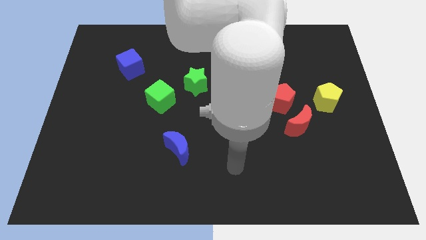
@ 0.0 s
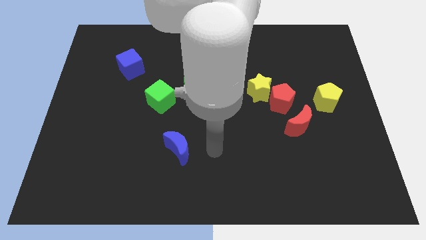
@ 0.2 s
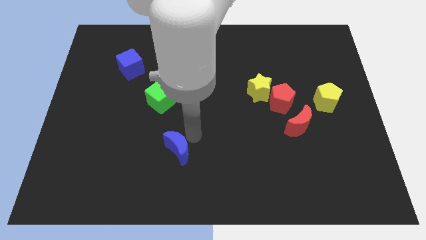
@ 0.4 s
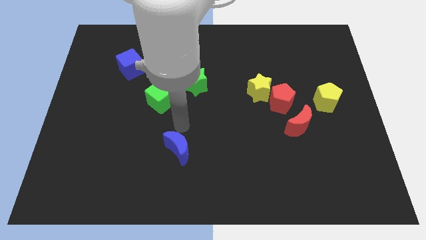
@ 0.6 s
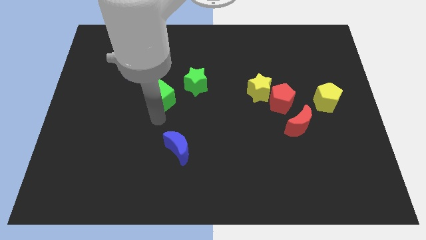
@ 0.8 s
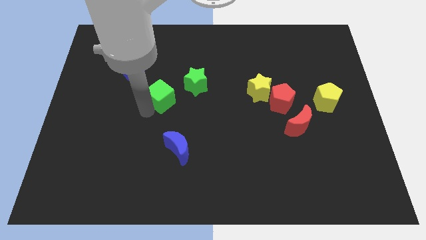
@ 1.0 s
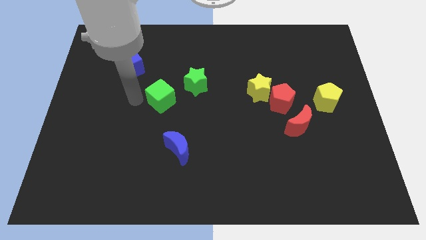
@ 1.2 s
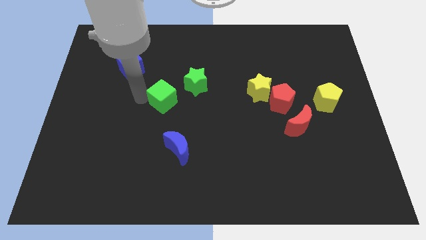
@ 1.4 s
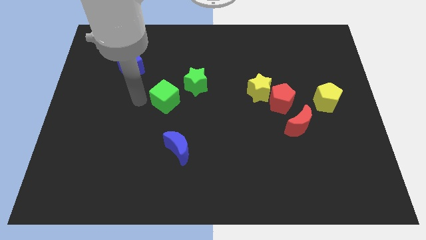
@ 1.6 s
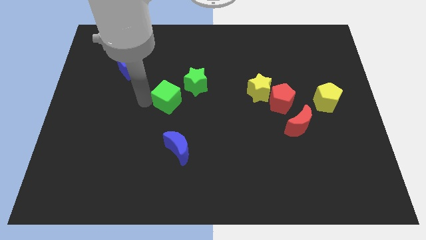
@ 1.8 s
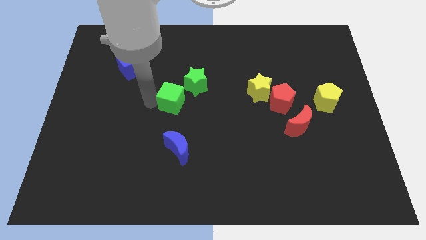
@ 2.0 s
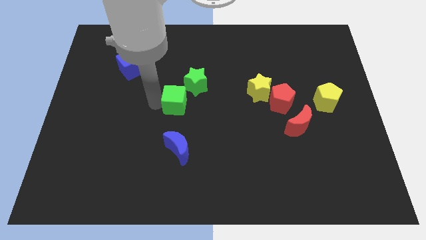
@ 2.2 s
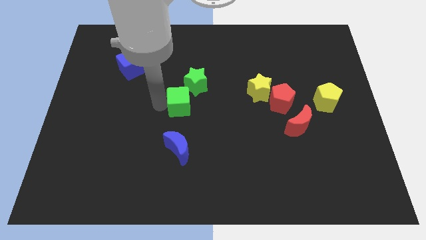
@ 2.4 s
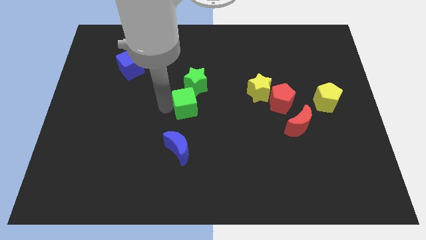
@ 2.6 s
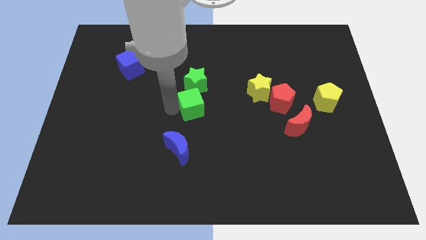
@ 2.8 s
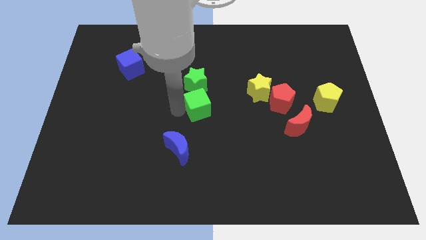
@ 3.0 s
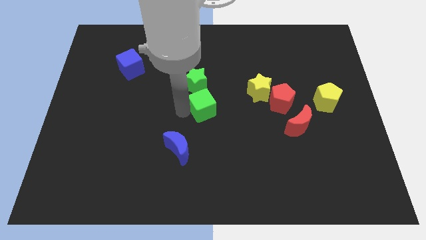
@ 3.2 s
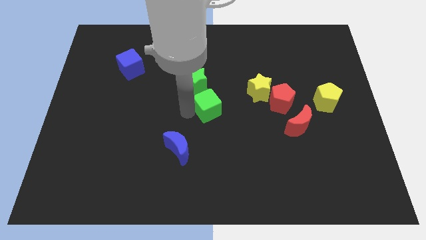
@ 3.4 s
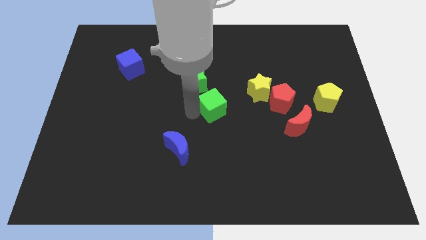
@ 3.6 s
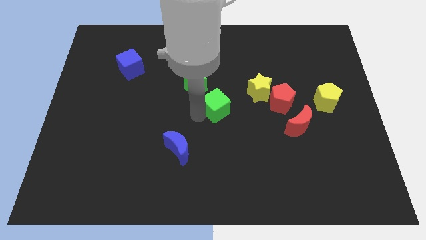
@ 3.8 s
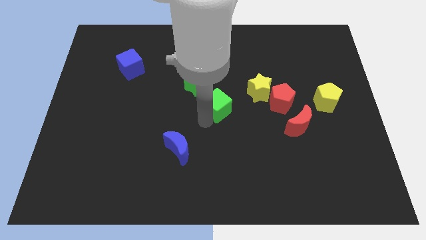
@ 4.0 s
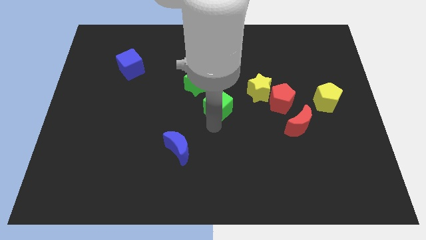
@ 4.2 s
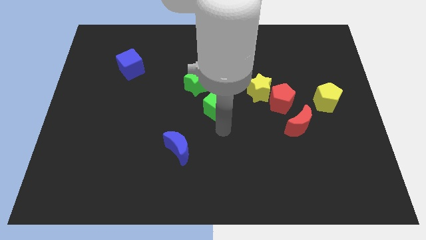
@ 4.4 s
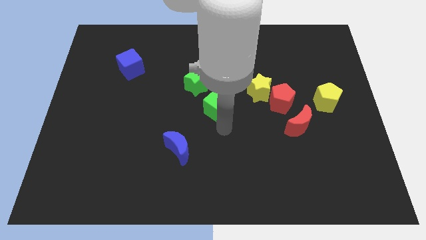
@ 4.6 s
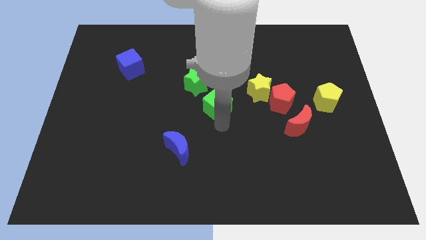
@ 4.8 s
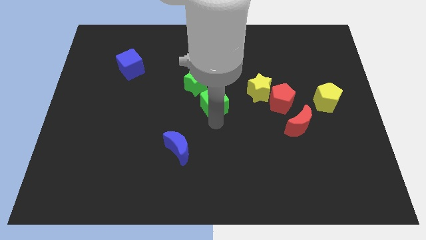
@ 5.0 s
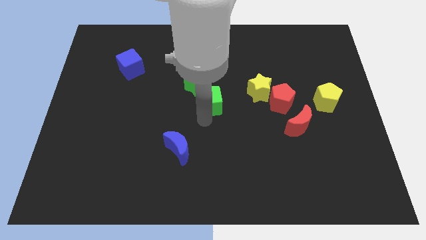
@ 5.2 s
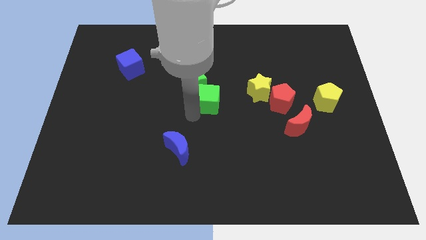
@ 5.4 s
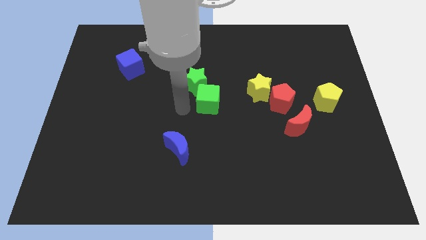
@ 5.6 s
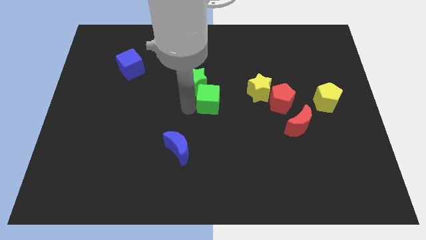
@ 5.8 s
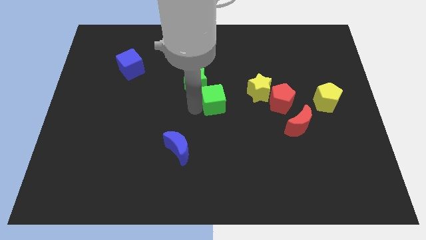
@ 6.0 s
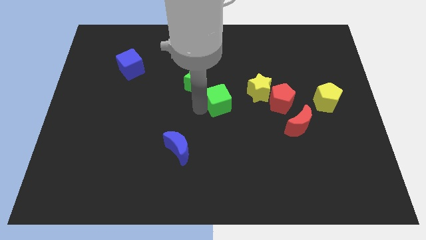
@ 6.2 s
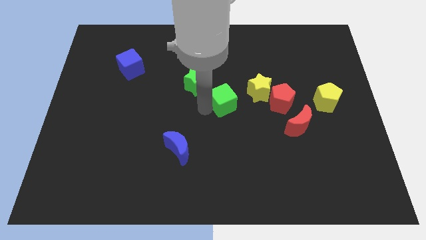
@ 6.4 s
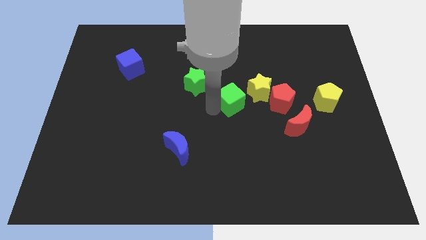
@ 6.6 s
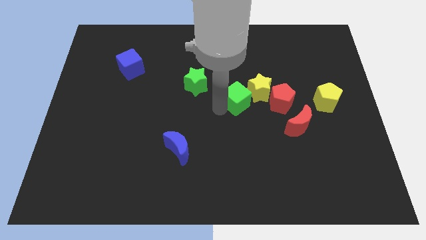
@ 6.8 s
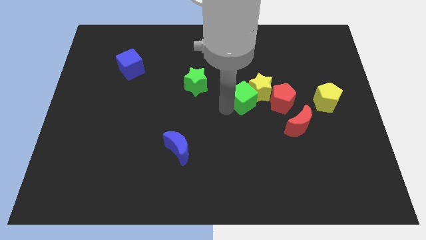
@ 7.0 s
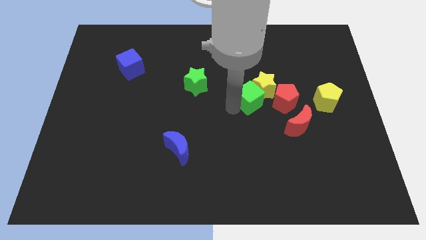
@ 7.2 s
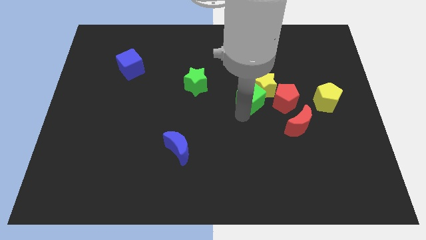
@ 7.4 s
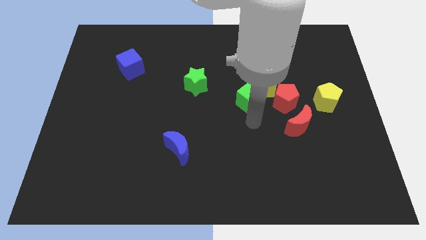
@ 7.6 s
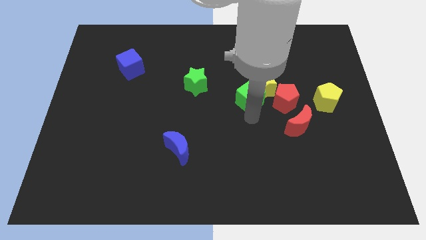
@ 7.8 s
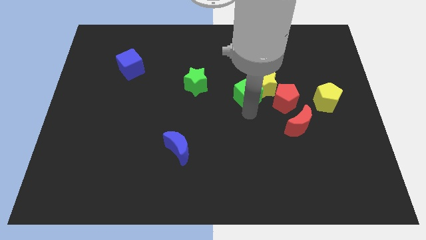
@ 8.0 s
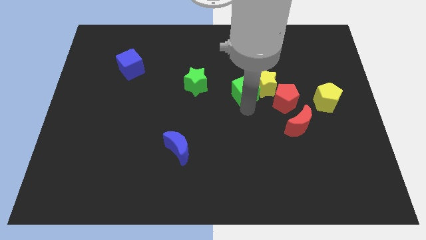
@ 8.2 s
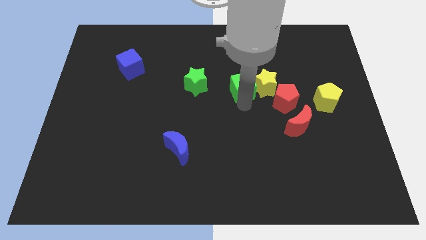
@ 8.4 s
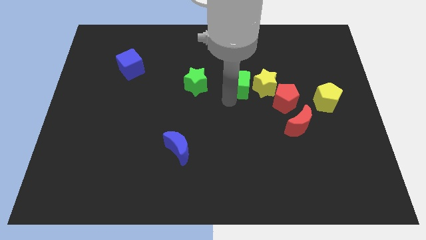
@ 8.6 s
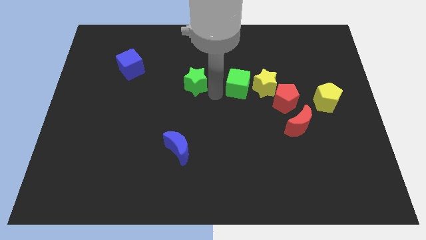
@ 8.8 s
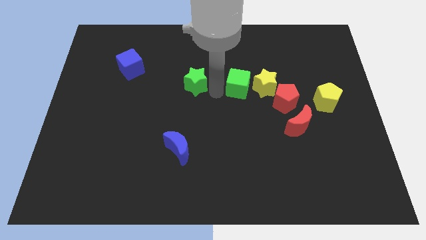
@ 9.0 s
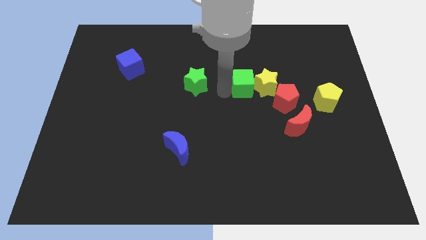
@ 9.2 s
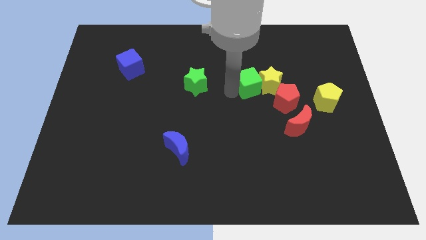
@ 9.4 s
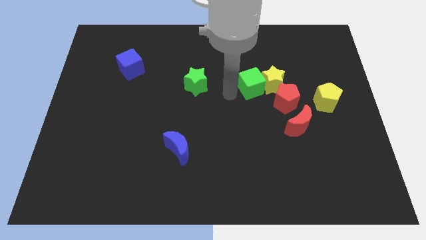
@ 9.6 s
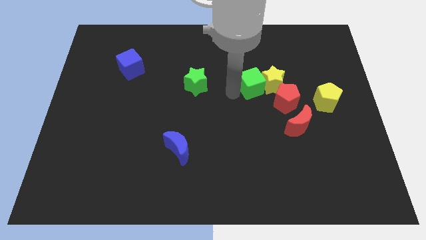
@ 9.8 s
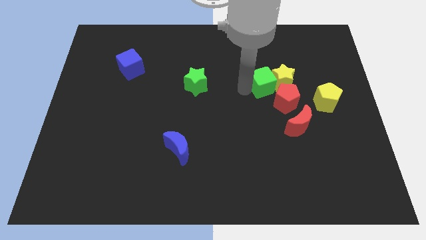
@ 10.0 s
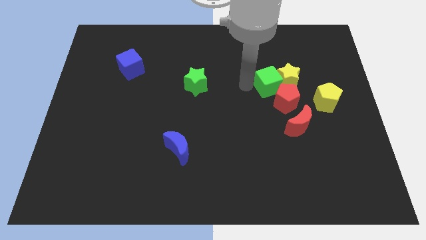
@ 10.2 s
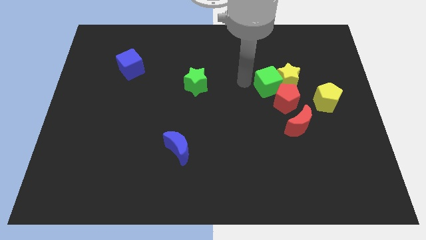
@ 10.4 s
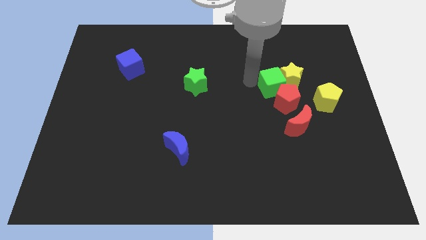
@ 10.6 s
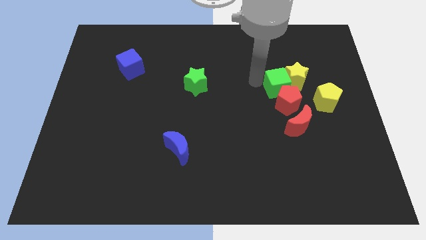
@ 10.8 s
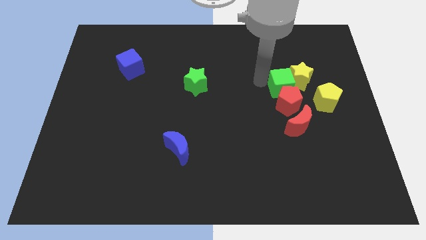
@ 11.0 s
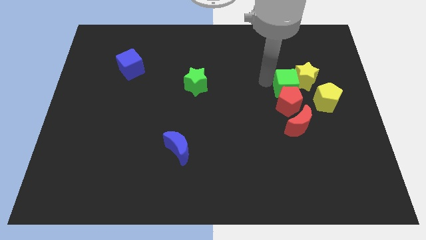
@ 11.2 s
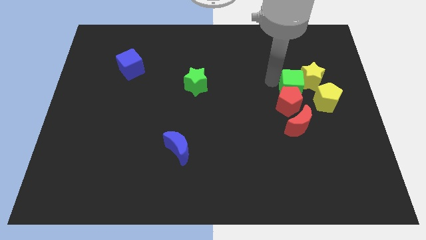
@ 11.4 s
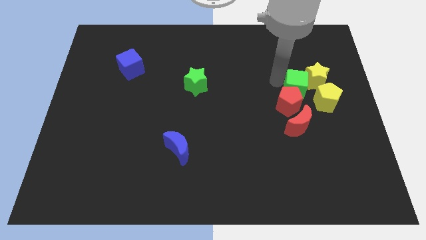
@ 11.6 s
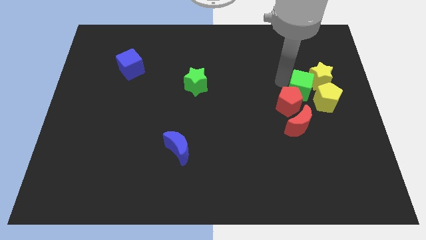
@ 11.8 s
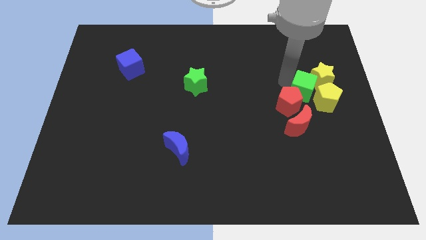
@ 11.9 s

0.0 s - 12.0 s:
put the green cube towards the yellow pentagon

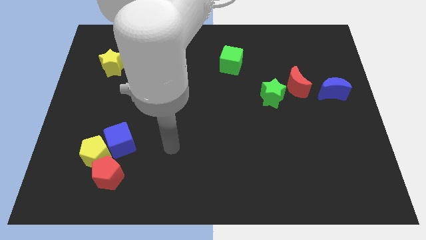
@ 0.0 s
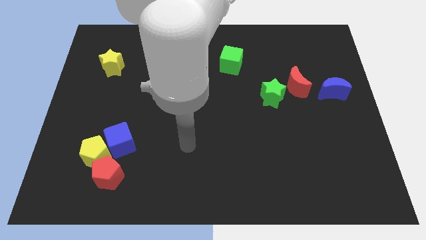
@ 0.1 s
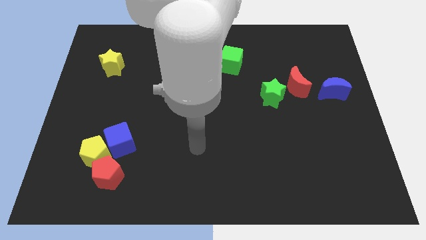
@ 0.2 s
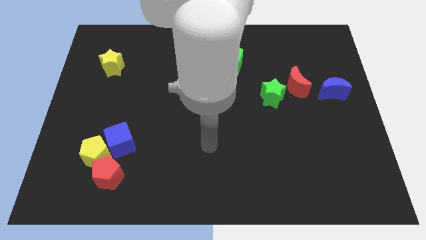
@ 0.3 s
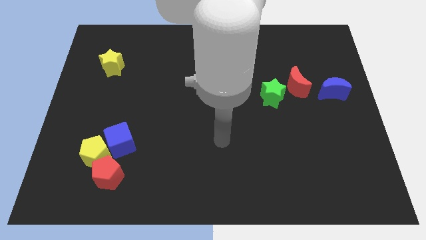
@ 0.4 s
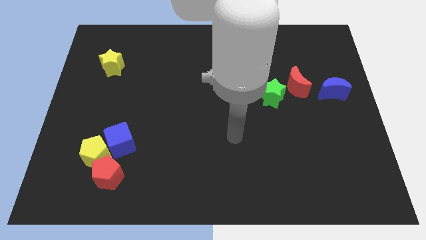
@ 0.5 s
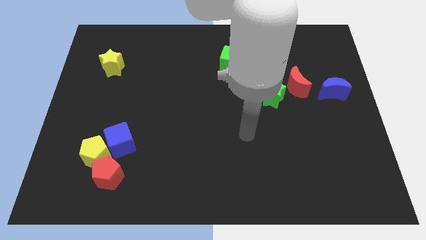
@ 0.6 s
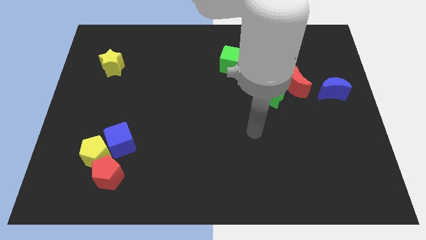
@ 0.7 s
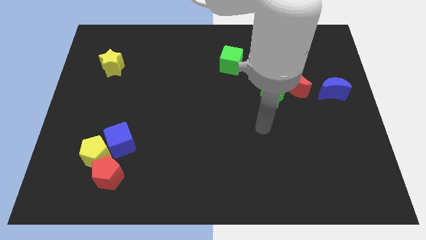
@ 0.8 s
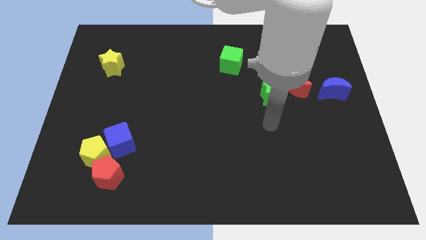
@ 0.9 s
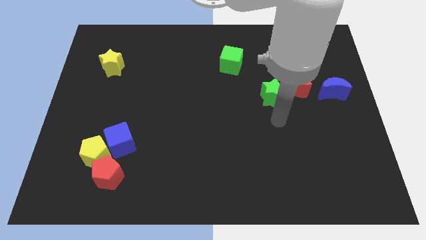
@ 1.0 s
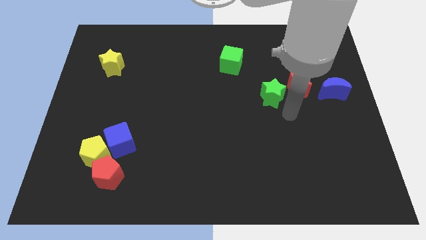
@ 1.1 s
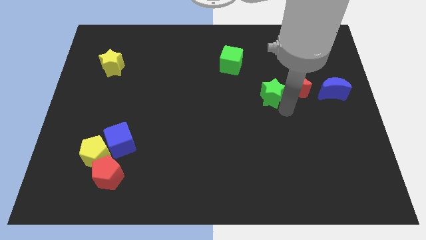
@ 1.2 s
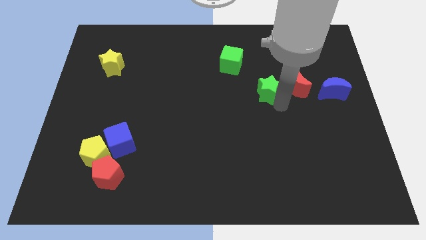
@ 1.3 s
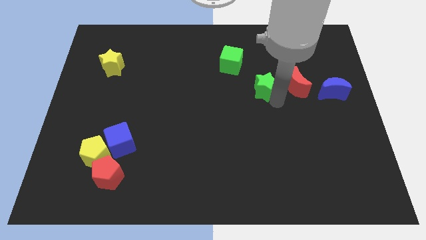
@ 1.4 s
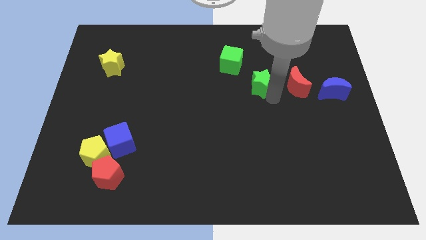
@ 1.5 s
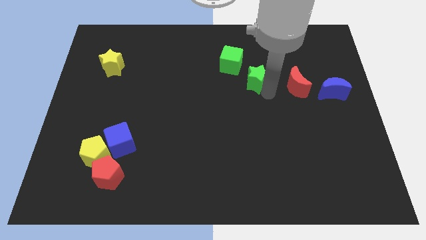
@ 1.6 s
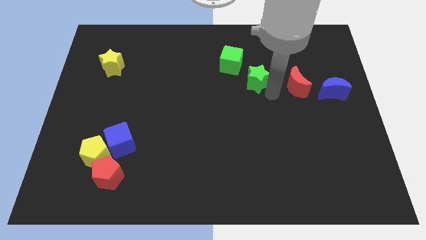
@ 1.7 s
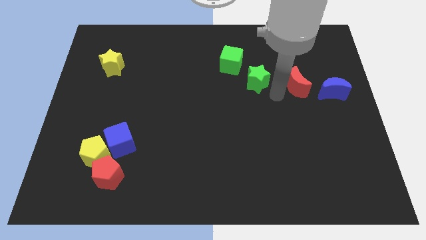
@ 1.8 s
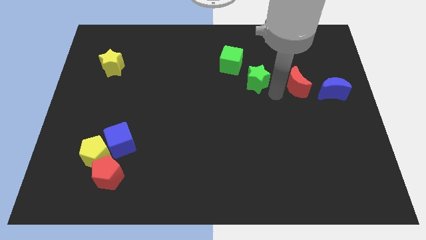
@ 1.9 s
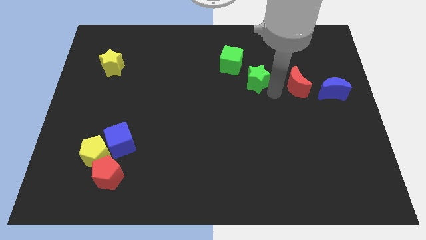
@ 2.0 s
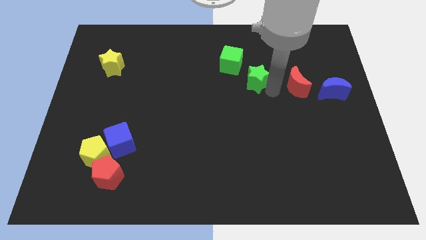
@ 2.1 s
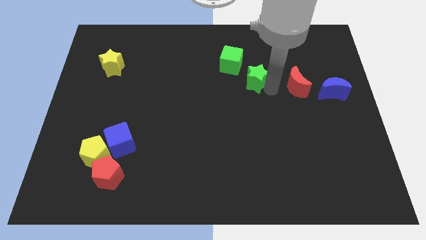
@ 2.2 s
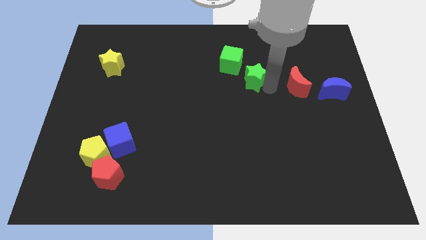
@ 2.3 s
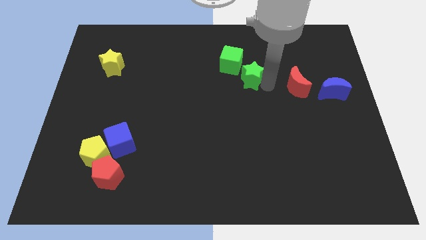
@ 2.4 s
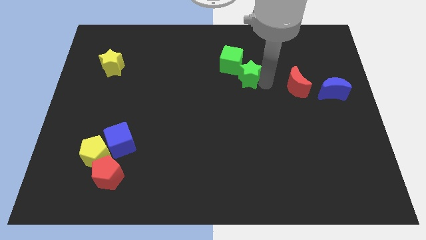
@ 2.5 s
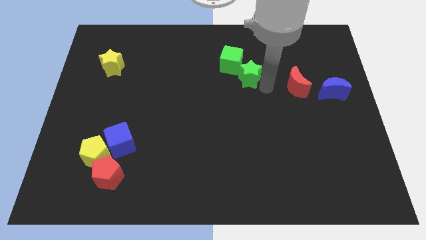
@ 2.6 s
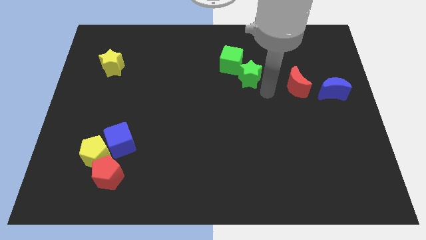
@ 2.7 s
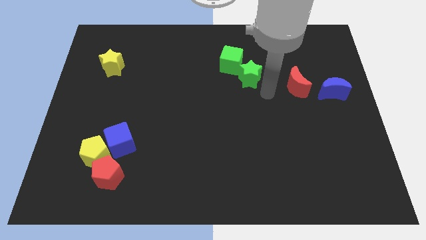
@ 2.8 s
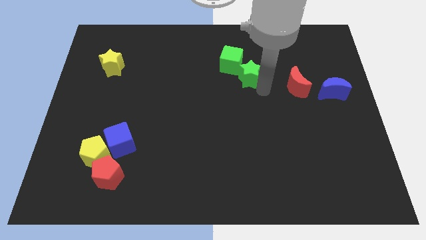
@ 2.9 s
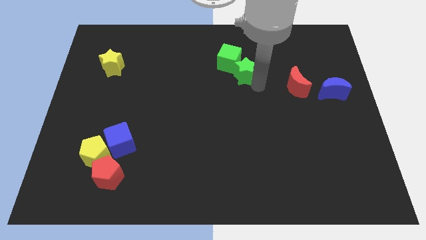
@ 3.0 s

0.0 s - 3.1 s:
put the green star to the green cube
